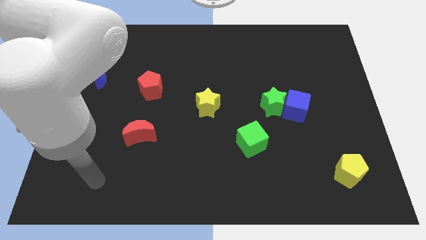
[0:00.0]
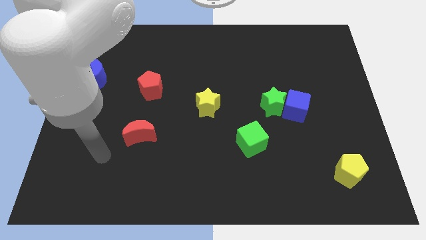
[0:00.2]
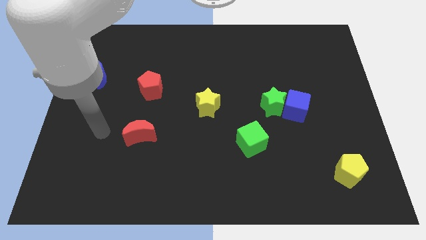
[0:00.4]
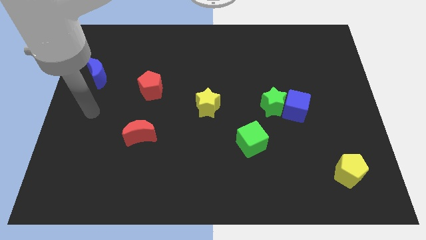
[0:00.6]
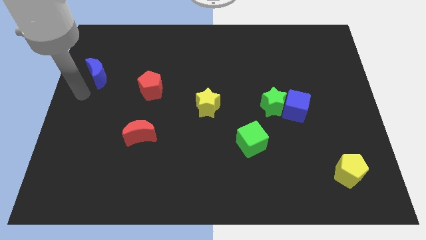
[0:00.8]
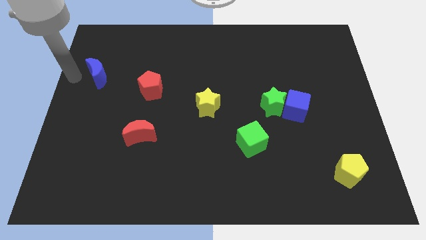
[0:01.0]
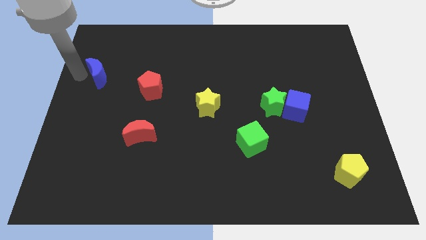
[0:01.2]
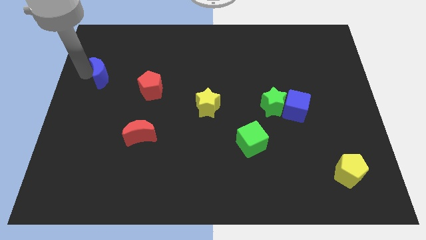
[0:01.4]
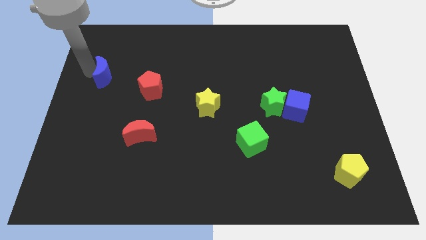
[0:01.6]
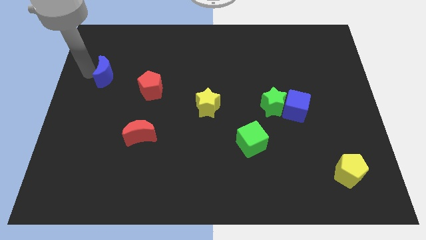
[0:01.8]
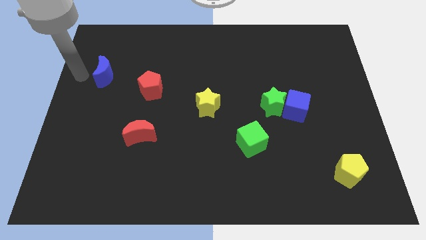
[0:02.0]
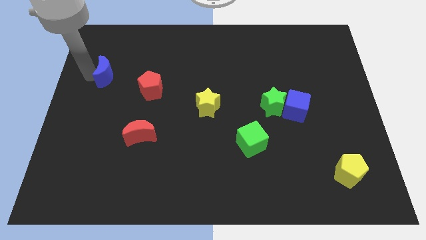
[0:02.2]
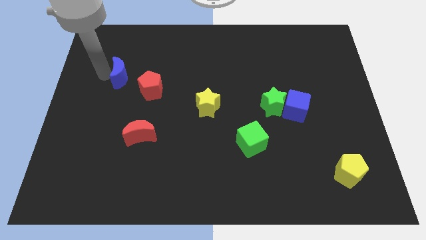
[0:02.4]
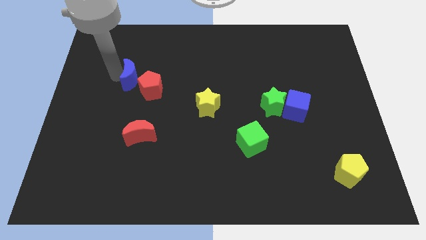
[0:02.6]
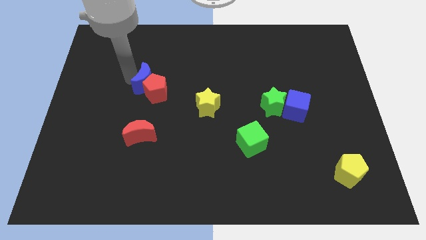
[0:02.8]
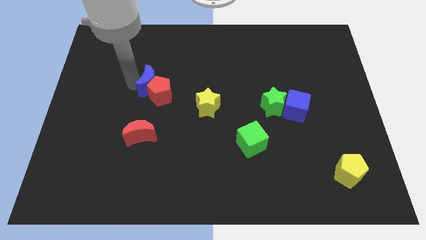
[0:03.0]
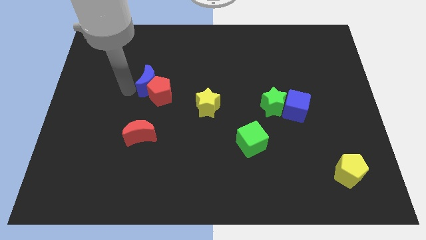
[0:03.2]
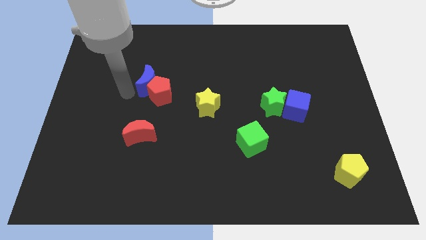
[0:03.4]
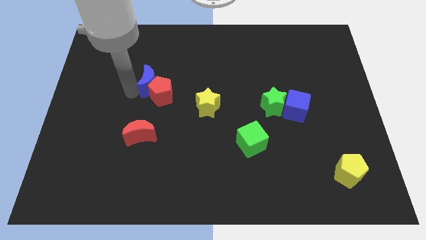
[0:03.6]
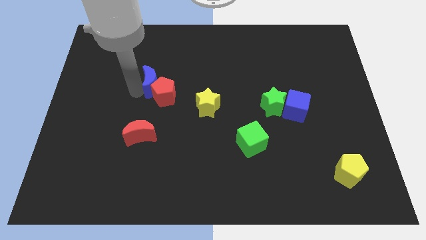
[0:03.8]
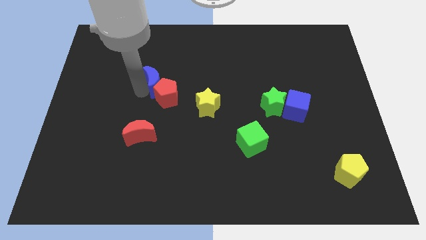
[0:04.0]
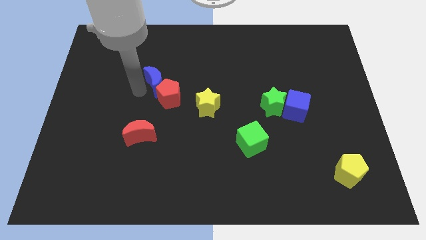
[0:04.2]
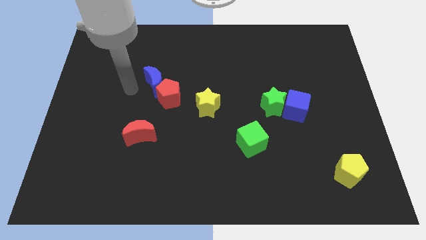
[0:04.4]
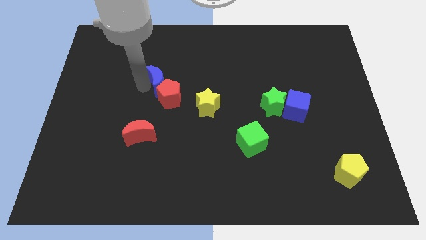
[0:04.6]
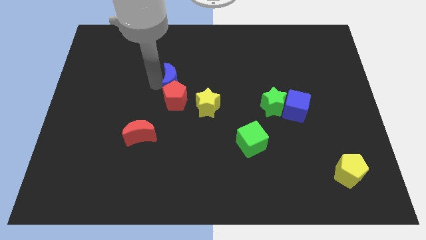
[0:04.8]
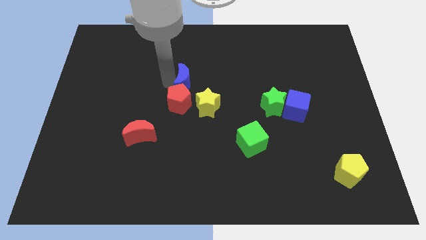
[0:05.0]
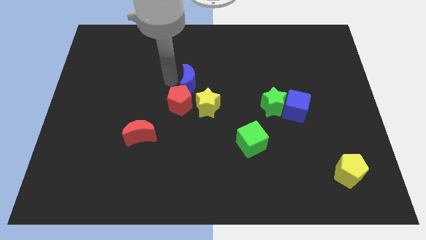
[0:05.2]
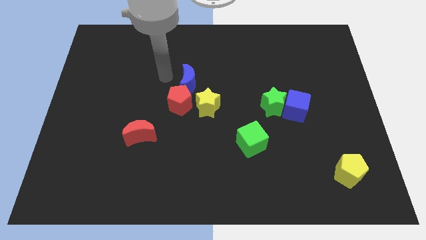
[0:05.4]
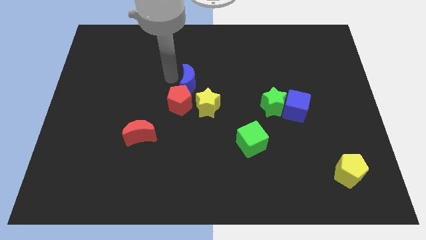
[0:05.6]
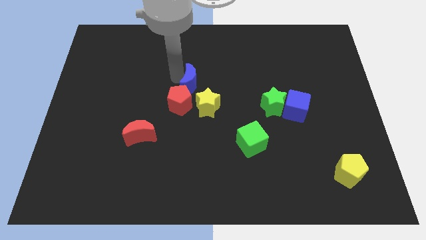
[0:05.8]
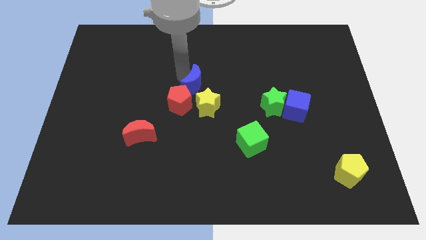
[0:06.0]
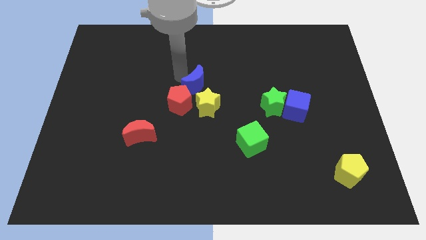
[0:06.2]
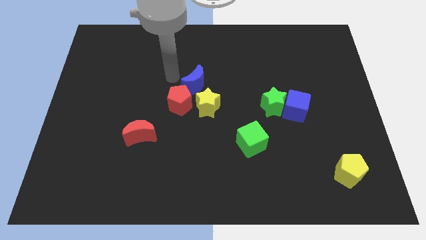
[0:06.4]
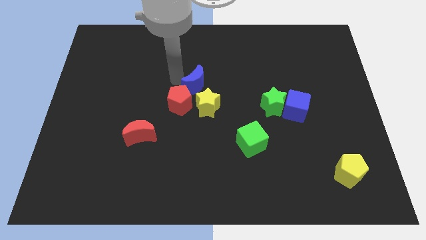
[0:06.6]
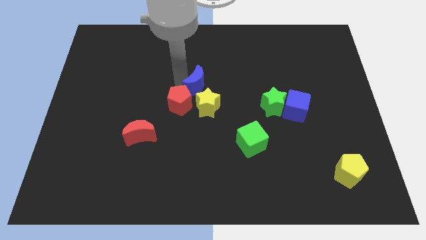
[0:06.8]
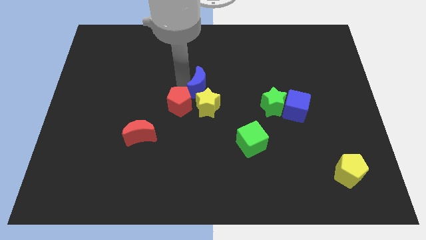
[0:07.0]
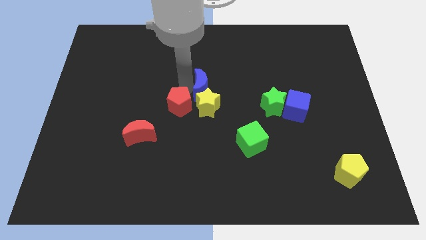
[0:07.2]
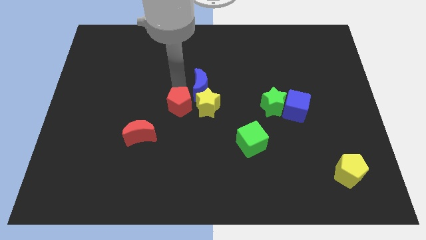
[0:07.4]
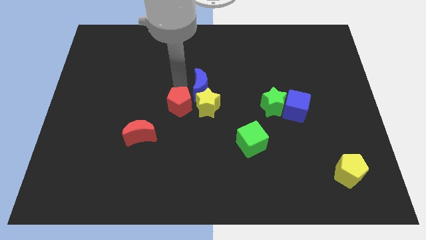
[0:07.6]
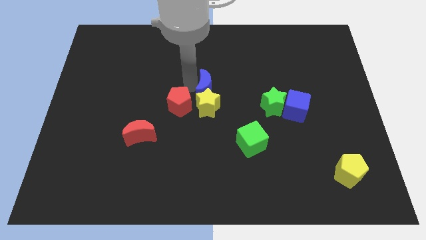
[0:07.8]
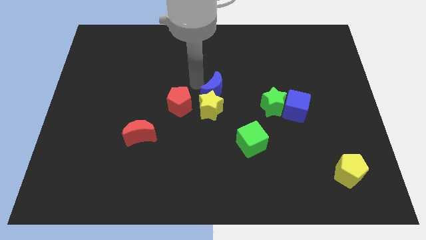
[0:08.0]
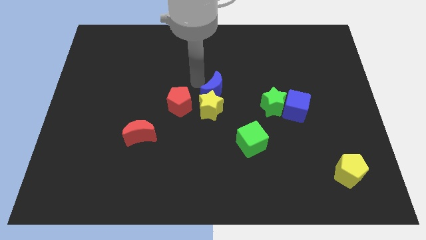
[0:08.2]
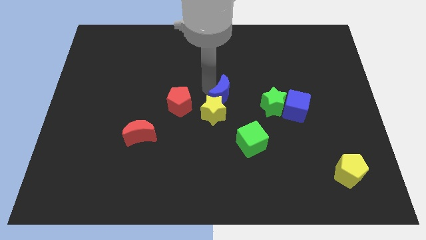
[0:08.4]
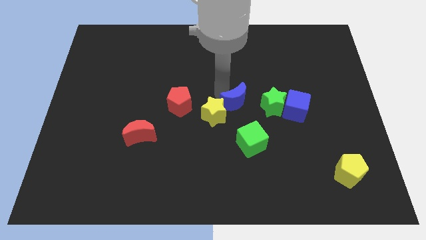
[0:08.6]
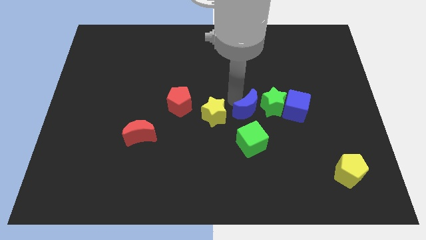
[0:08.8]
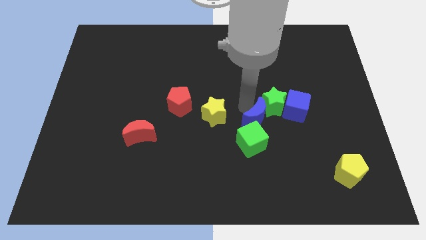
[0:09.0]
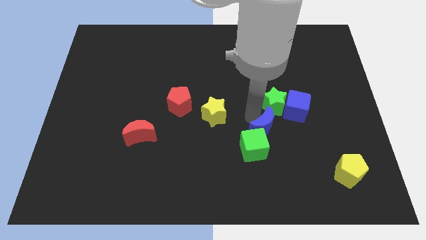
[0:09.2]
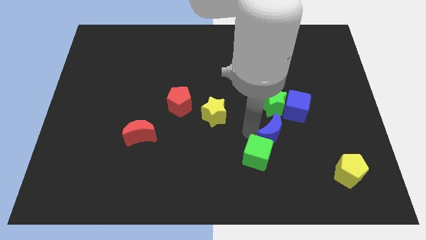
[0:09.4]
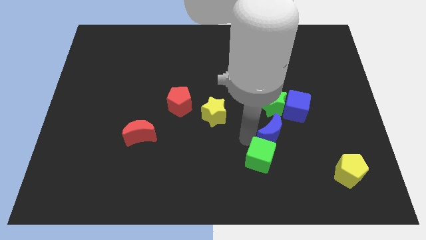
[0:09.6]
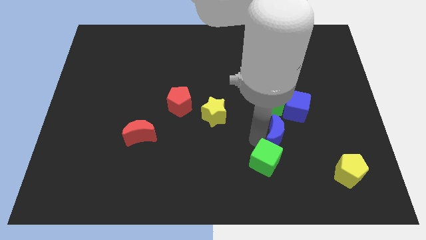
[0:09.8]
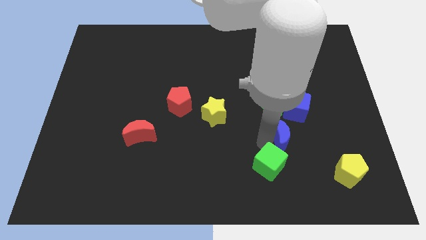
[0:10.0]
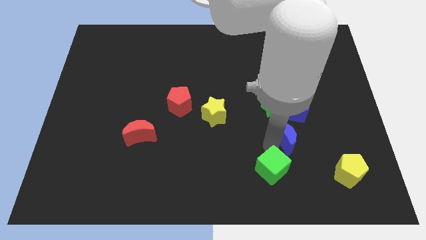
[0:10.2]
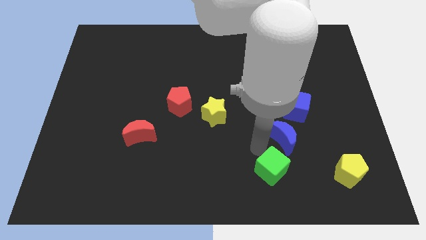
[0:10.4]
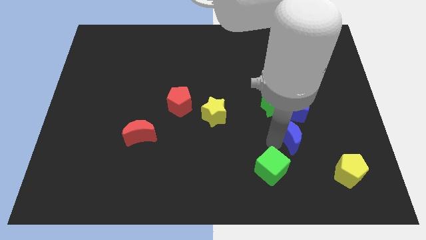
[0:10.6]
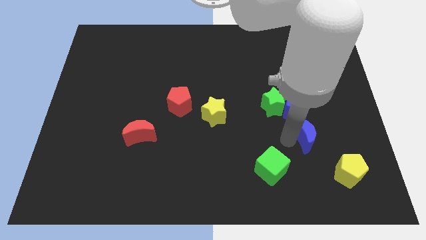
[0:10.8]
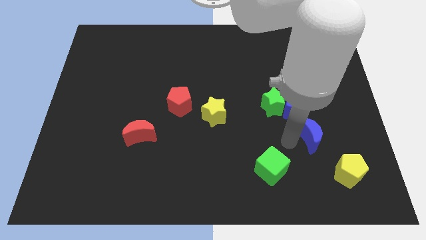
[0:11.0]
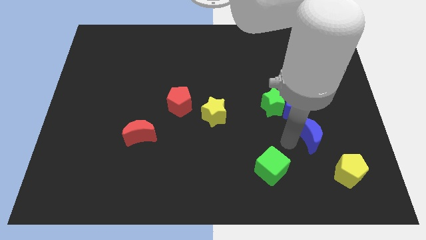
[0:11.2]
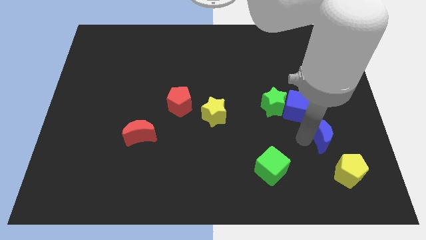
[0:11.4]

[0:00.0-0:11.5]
push the blue moon above the yellow pentagon

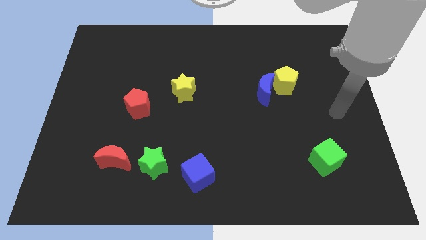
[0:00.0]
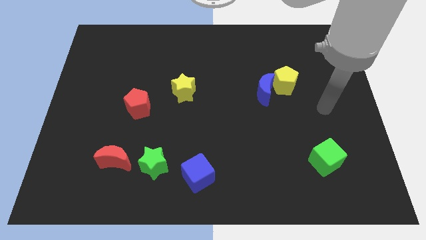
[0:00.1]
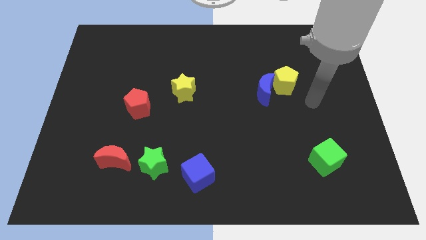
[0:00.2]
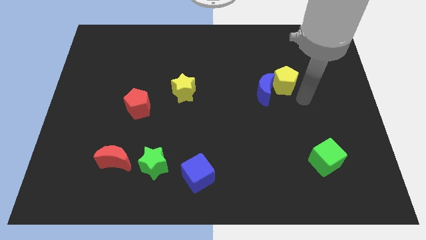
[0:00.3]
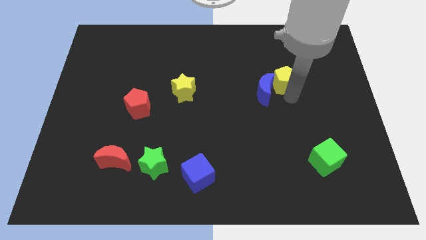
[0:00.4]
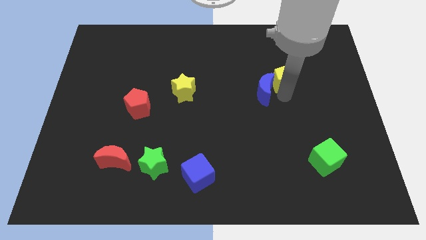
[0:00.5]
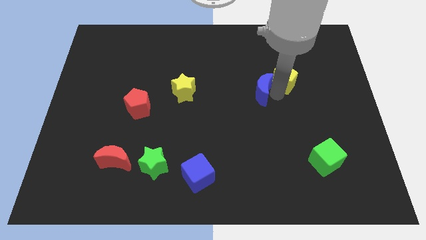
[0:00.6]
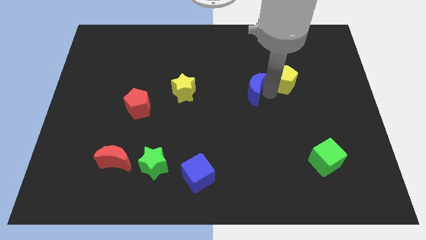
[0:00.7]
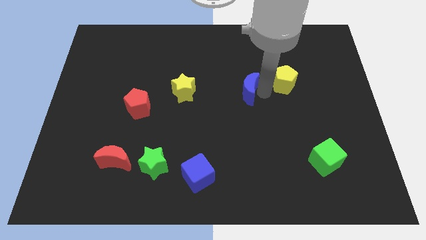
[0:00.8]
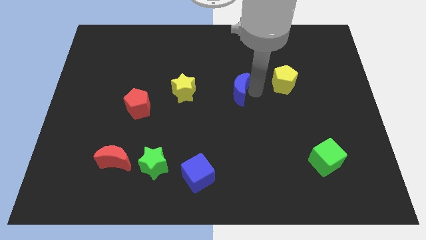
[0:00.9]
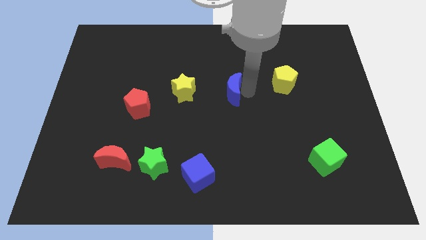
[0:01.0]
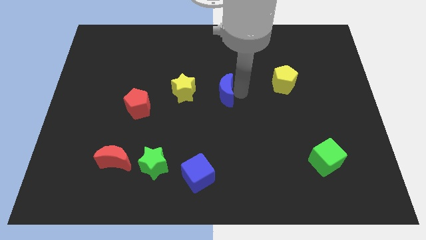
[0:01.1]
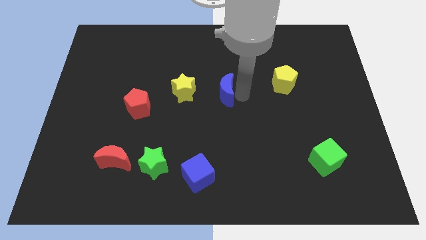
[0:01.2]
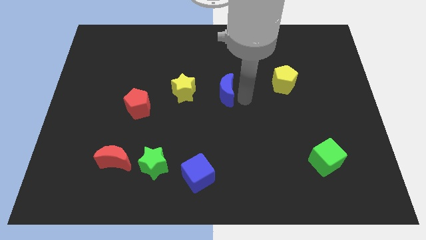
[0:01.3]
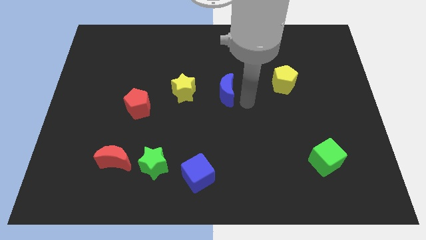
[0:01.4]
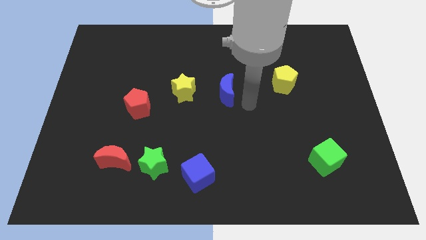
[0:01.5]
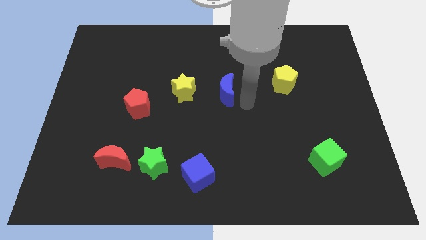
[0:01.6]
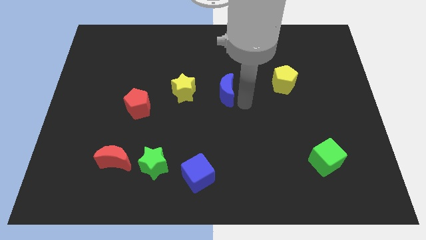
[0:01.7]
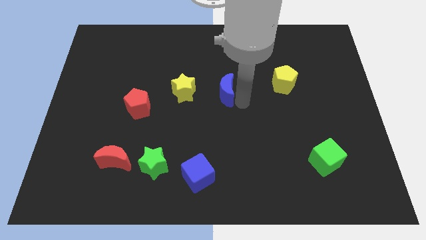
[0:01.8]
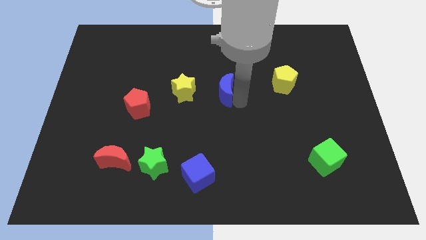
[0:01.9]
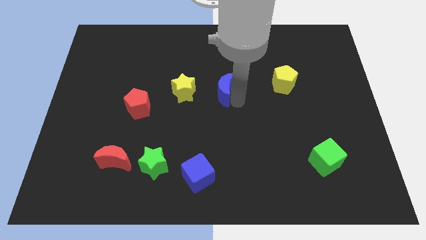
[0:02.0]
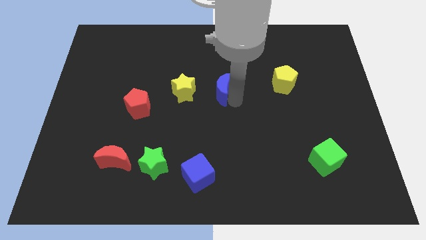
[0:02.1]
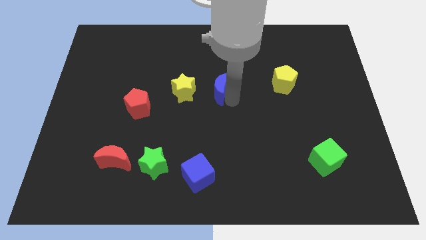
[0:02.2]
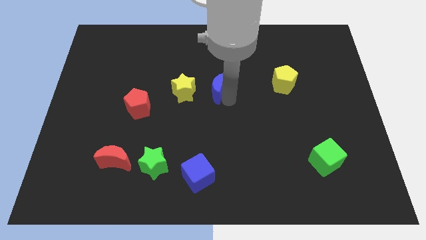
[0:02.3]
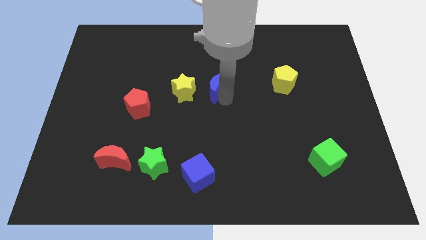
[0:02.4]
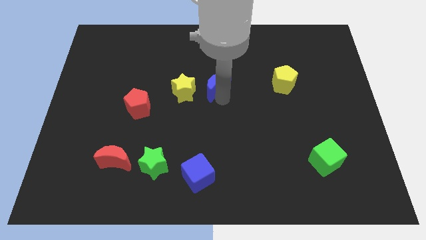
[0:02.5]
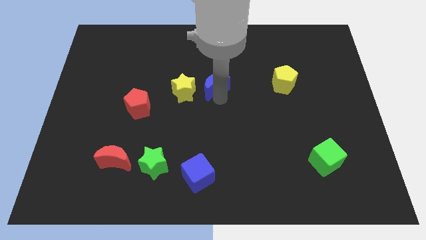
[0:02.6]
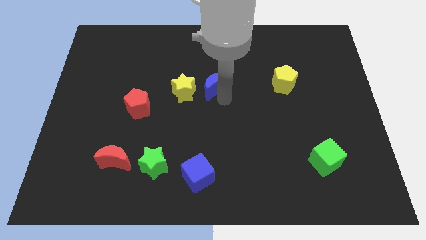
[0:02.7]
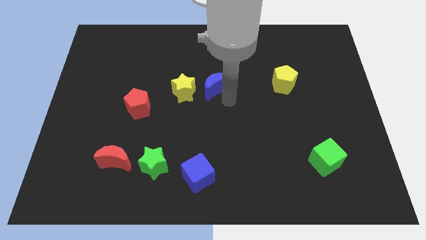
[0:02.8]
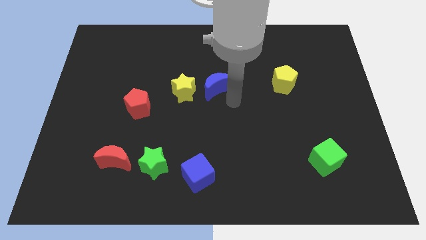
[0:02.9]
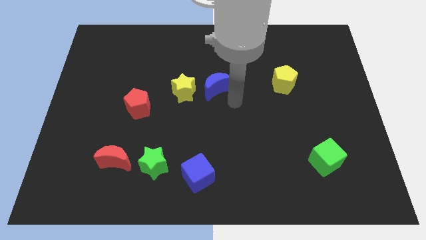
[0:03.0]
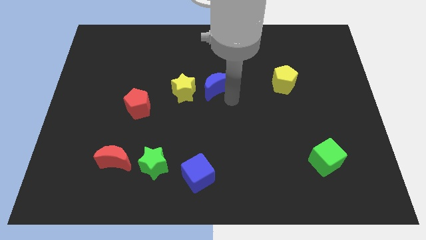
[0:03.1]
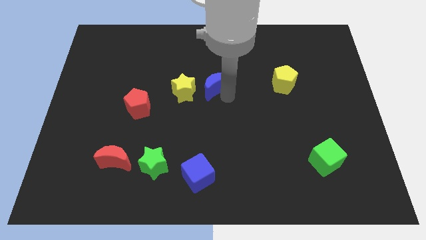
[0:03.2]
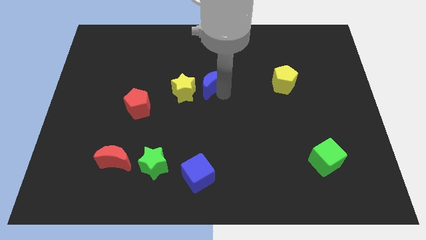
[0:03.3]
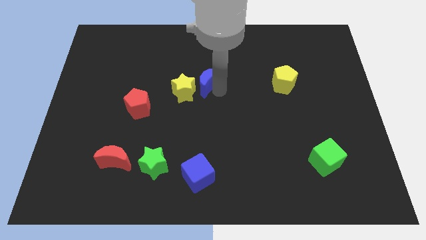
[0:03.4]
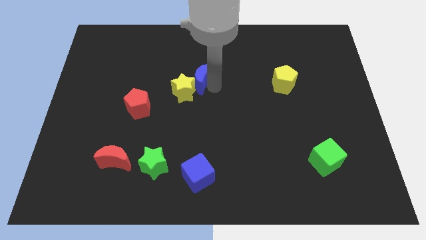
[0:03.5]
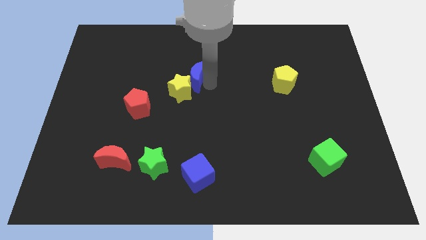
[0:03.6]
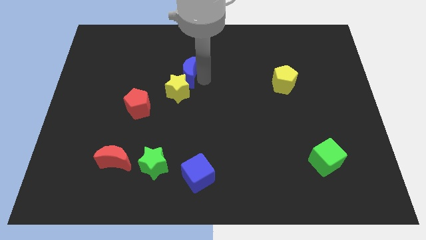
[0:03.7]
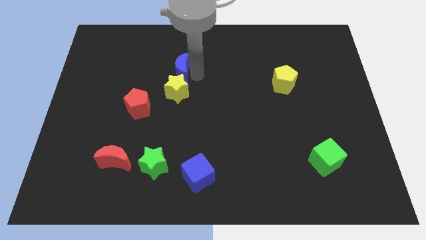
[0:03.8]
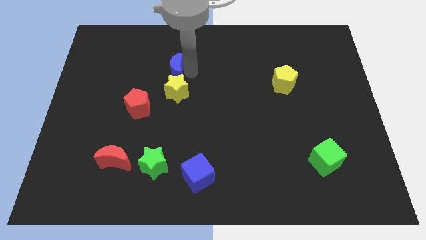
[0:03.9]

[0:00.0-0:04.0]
put the blue moon to the top left side of the yellow star
